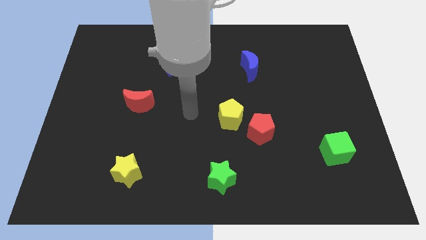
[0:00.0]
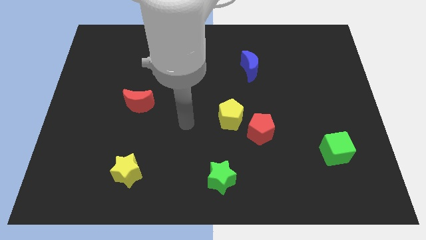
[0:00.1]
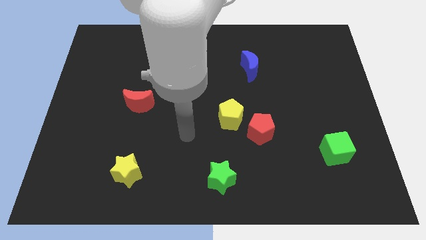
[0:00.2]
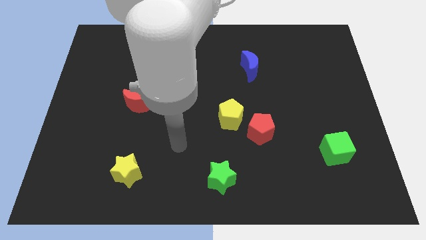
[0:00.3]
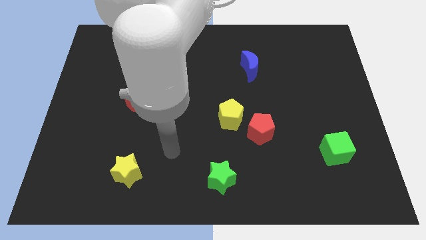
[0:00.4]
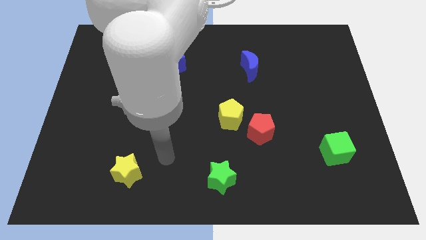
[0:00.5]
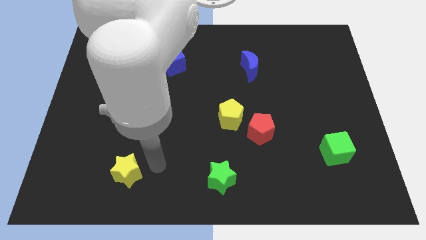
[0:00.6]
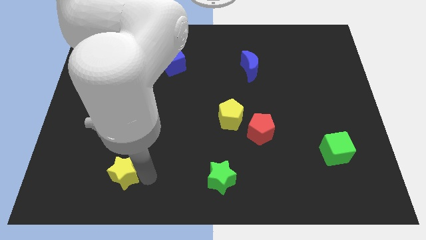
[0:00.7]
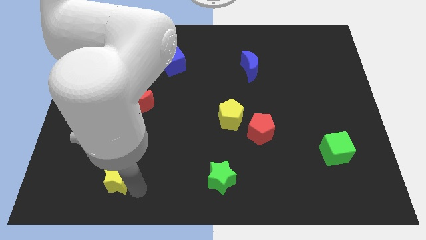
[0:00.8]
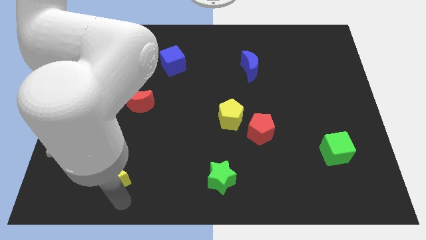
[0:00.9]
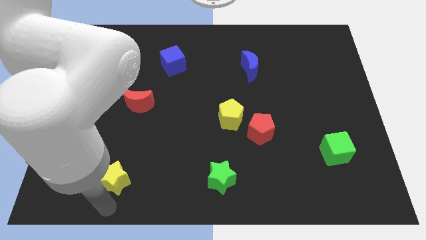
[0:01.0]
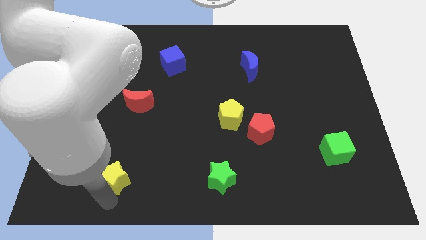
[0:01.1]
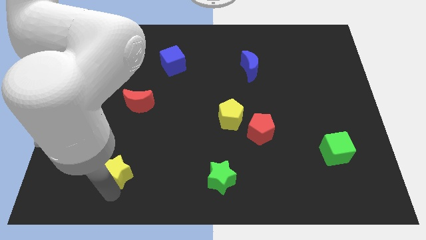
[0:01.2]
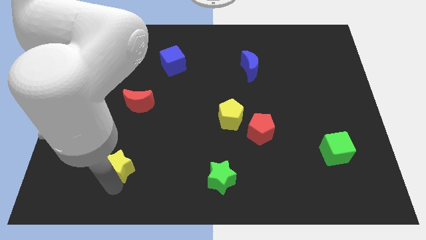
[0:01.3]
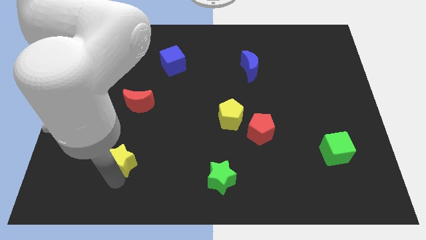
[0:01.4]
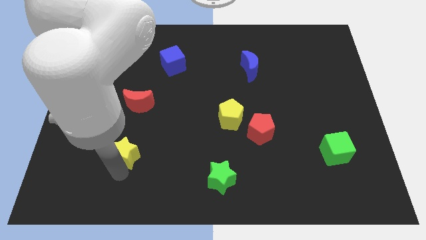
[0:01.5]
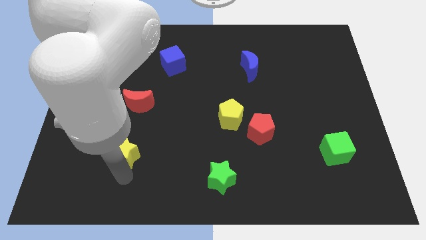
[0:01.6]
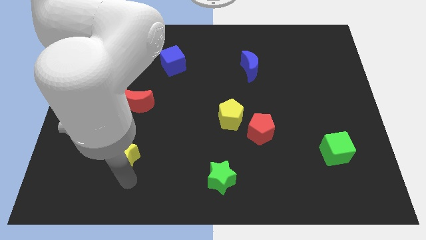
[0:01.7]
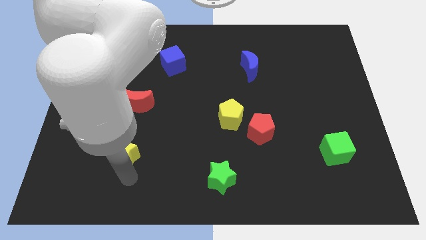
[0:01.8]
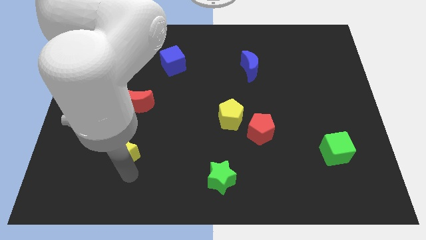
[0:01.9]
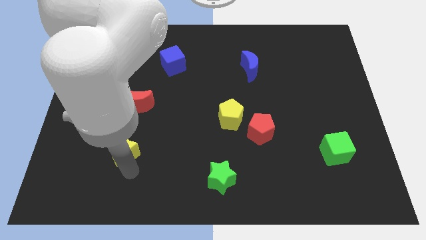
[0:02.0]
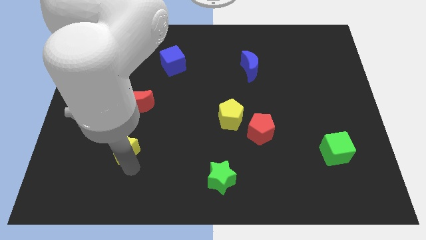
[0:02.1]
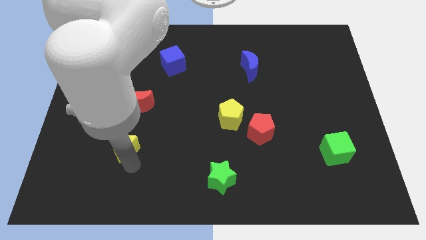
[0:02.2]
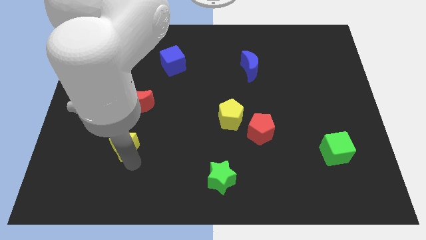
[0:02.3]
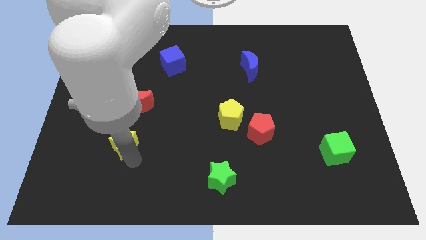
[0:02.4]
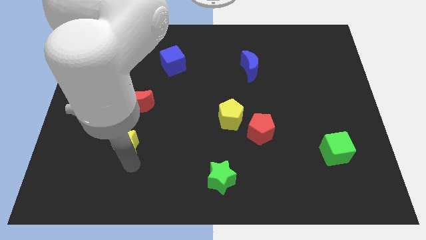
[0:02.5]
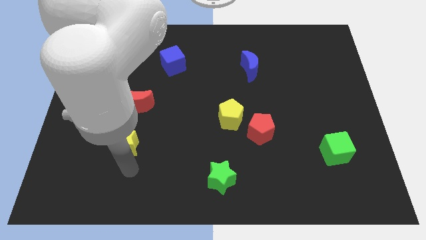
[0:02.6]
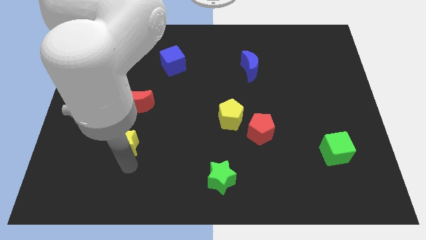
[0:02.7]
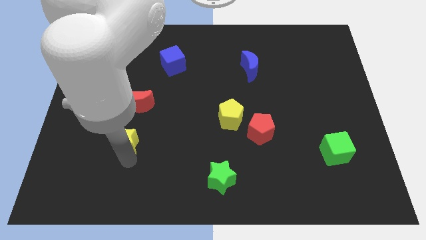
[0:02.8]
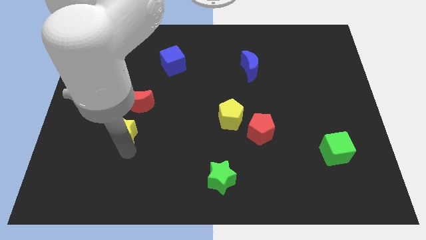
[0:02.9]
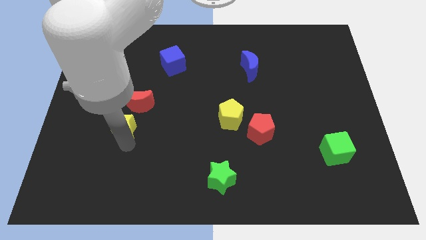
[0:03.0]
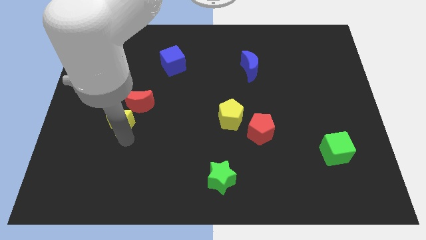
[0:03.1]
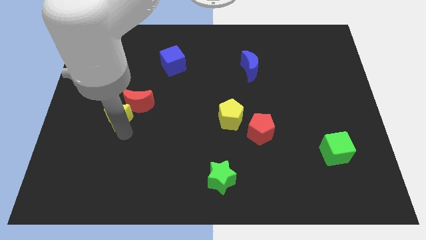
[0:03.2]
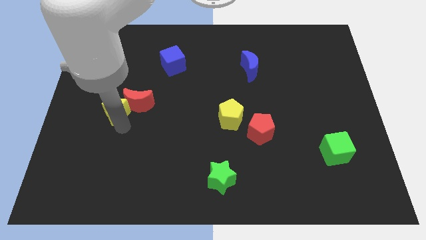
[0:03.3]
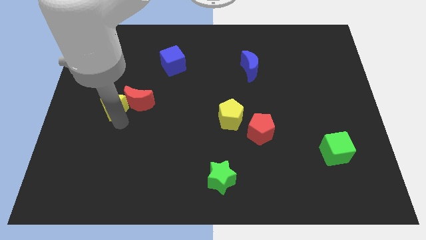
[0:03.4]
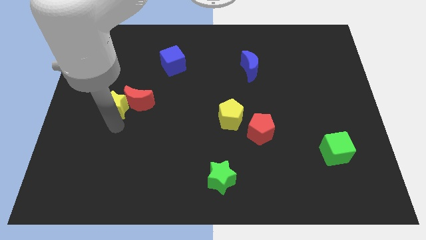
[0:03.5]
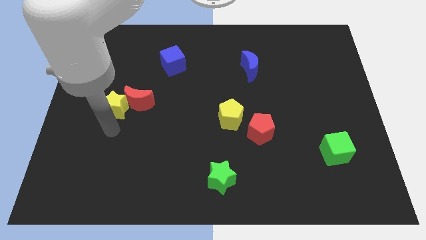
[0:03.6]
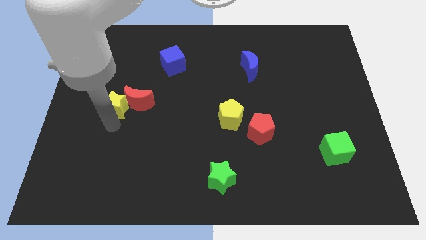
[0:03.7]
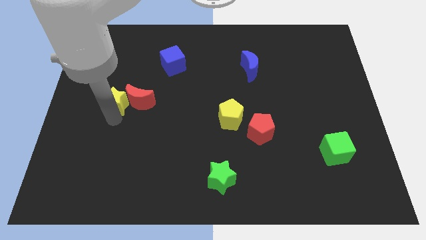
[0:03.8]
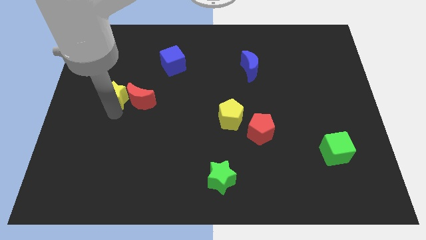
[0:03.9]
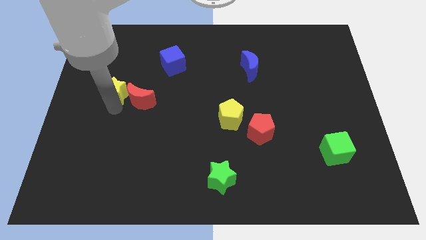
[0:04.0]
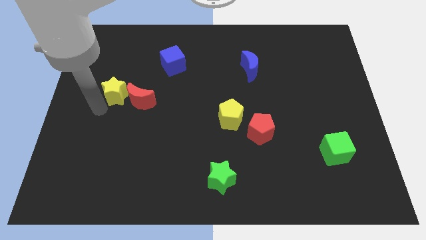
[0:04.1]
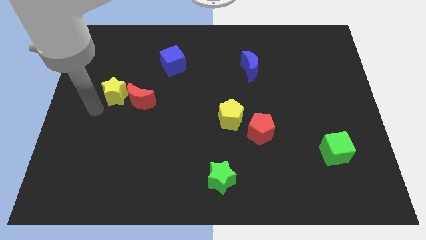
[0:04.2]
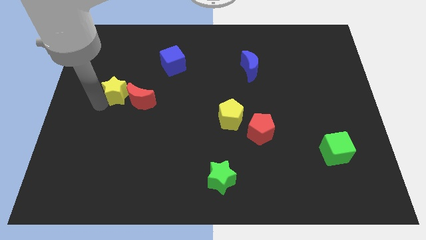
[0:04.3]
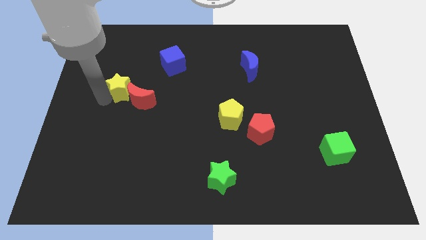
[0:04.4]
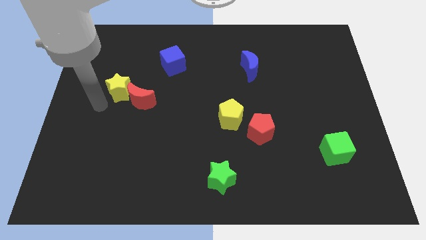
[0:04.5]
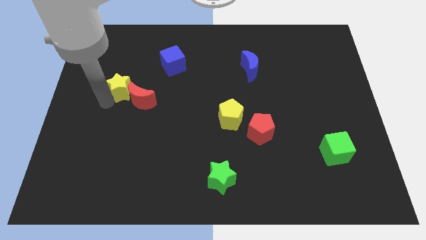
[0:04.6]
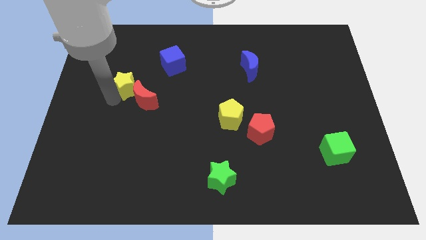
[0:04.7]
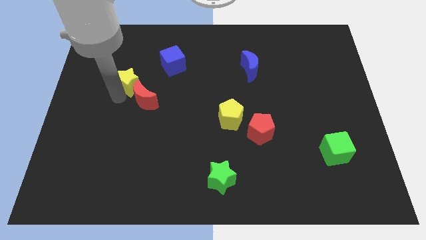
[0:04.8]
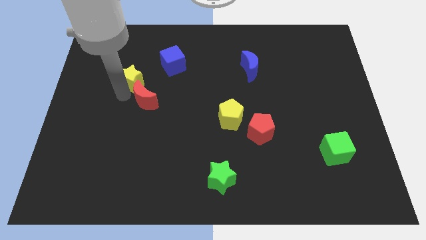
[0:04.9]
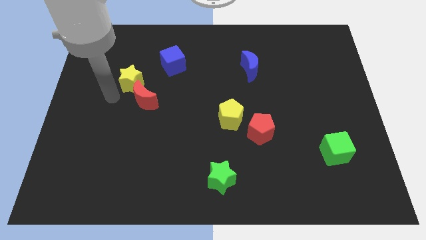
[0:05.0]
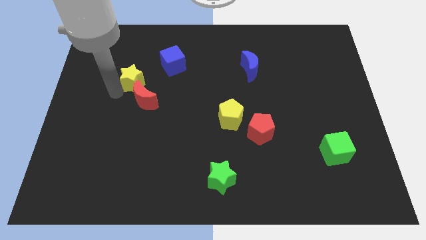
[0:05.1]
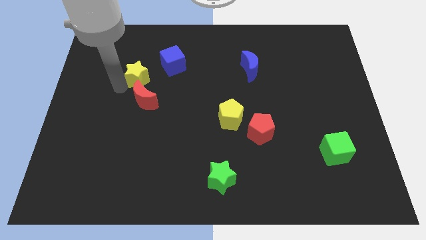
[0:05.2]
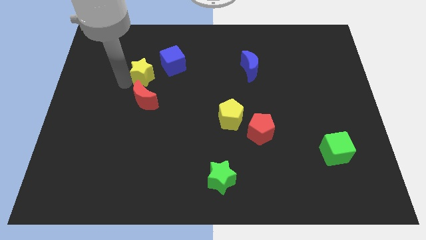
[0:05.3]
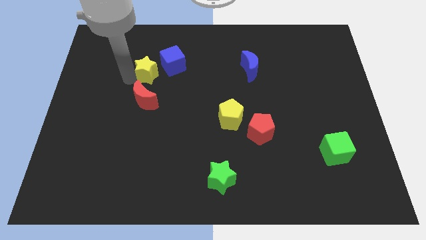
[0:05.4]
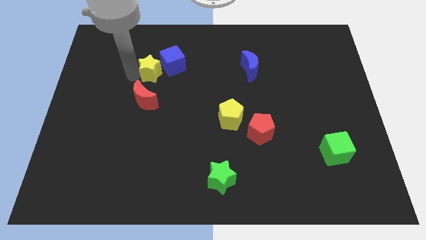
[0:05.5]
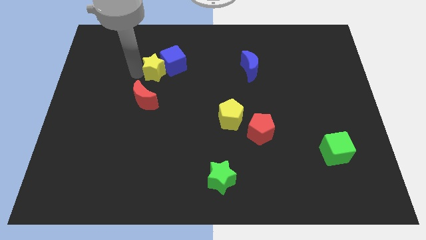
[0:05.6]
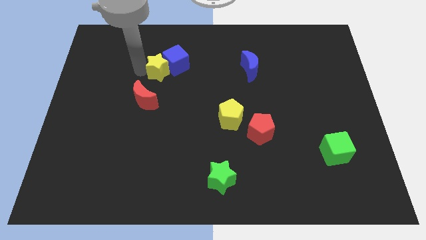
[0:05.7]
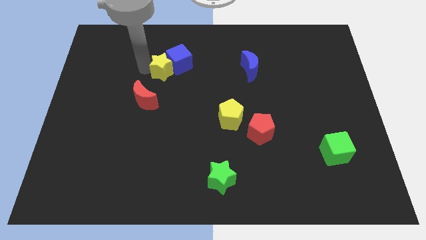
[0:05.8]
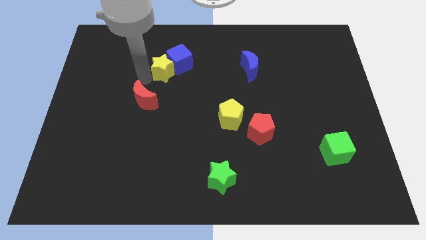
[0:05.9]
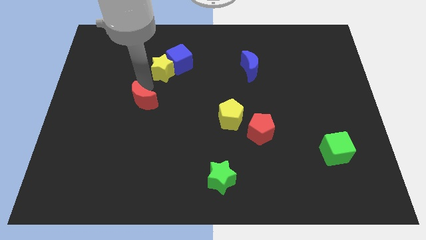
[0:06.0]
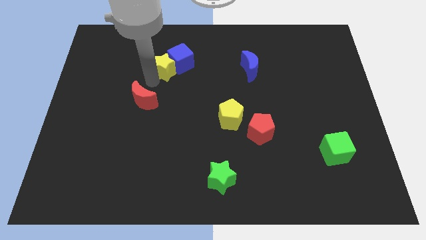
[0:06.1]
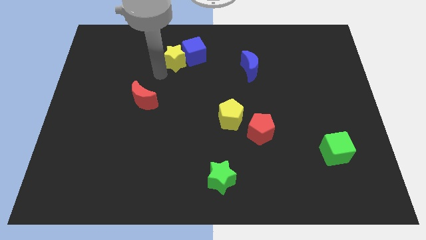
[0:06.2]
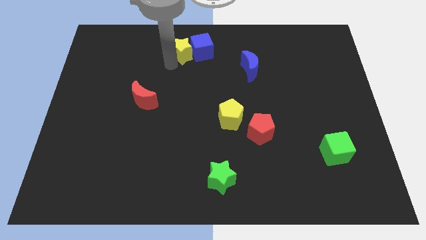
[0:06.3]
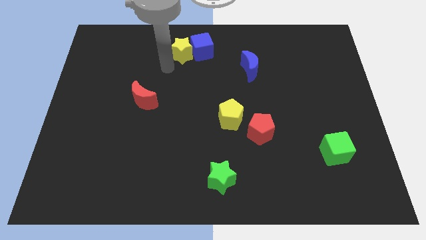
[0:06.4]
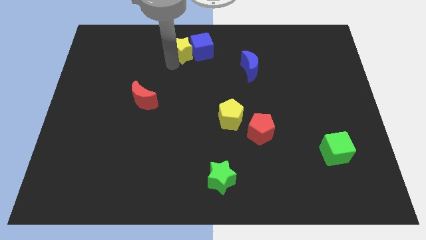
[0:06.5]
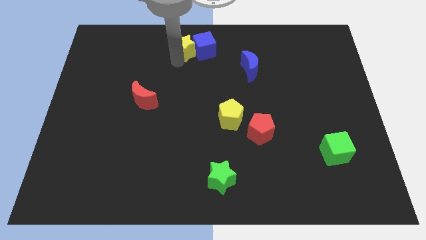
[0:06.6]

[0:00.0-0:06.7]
slide the yellow star to the top side

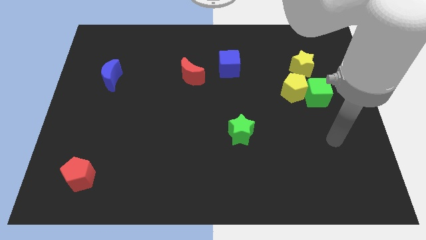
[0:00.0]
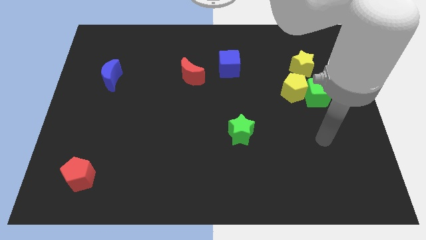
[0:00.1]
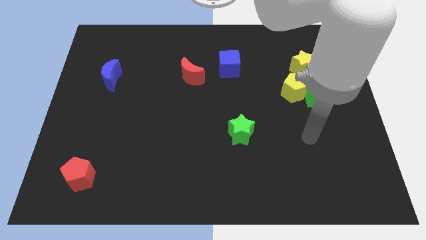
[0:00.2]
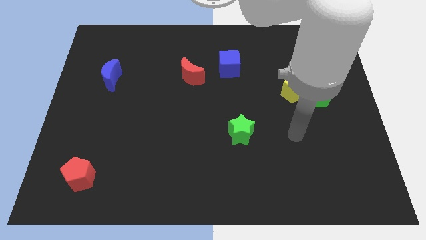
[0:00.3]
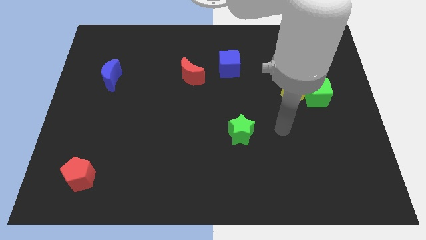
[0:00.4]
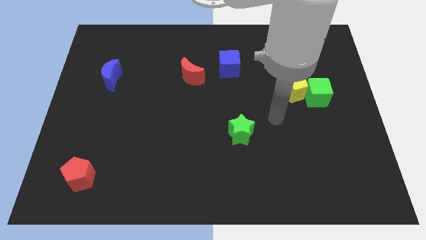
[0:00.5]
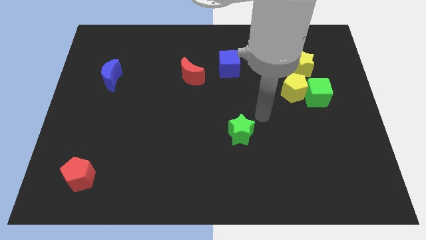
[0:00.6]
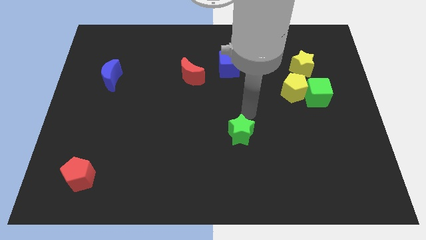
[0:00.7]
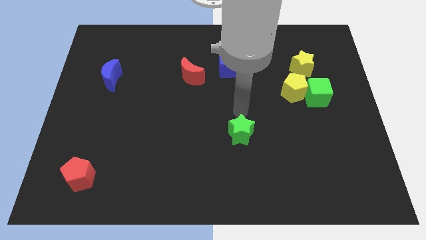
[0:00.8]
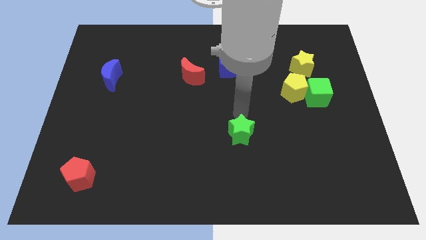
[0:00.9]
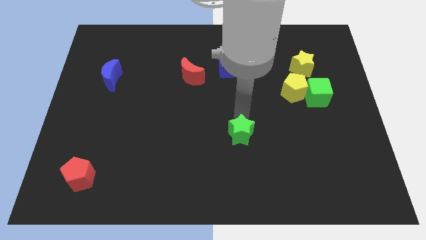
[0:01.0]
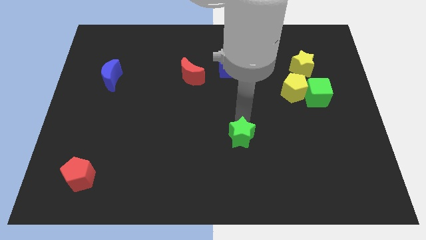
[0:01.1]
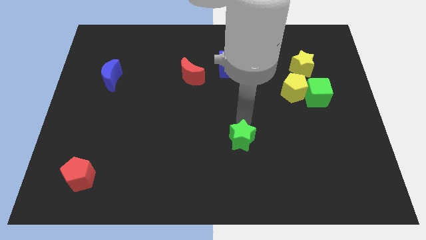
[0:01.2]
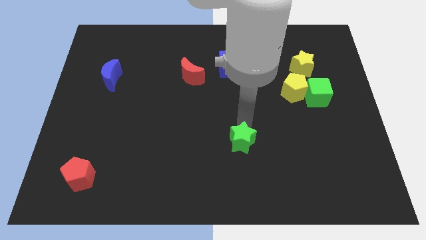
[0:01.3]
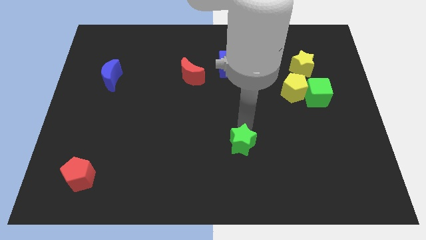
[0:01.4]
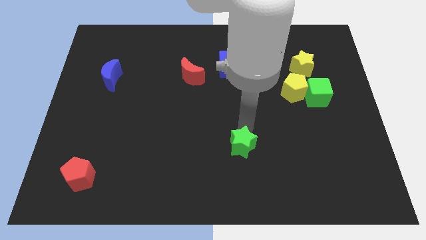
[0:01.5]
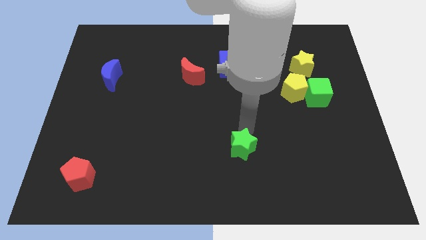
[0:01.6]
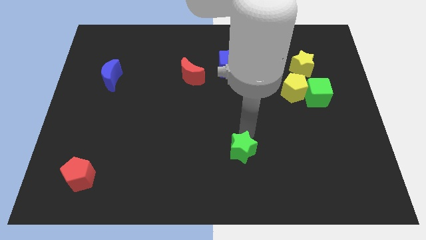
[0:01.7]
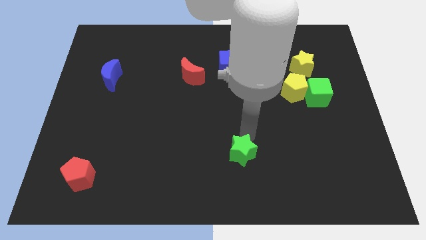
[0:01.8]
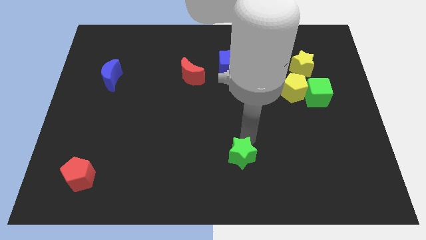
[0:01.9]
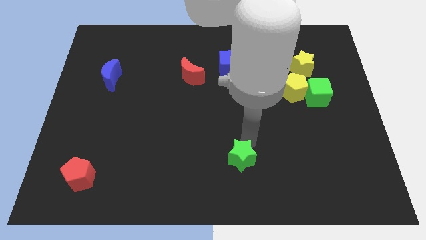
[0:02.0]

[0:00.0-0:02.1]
move the green star to the bottom
